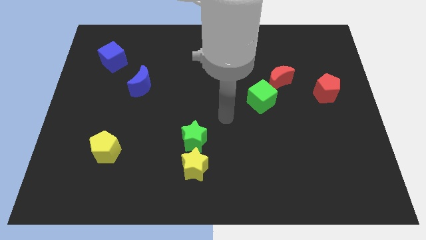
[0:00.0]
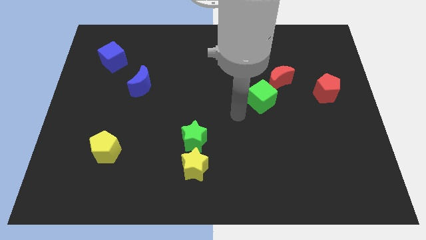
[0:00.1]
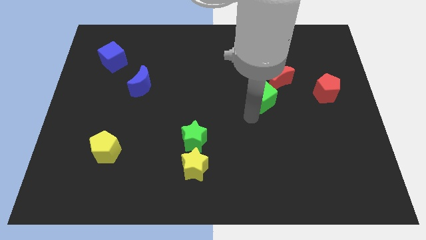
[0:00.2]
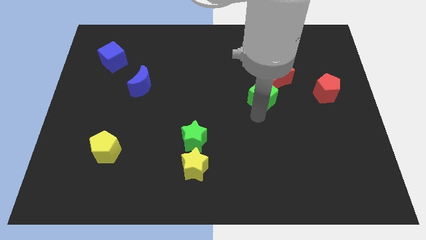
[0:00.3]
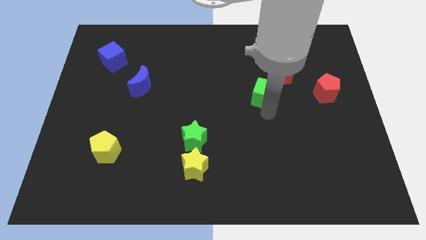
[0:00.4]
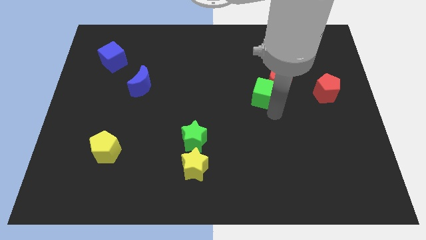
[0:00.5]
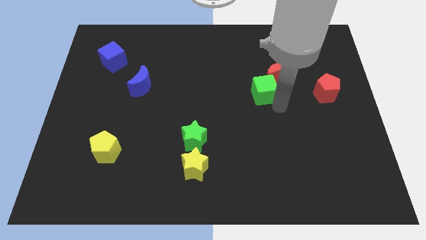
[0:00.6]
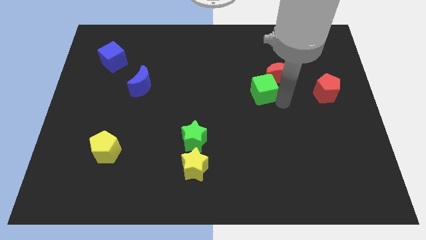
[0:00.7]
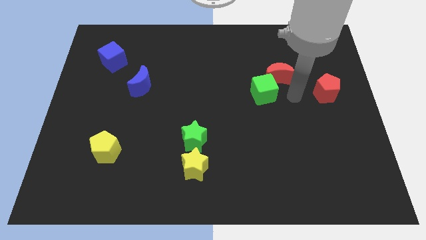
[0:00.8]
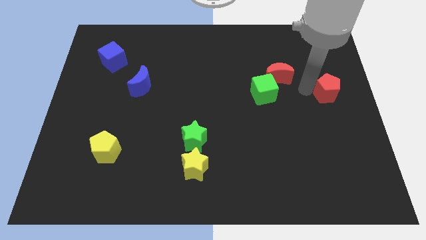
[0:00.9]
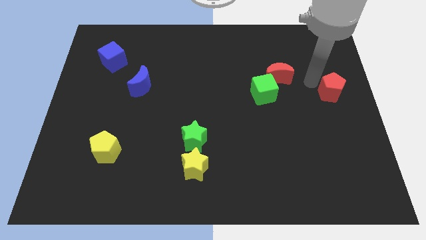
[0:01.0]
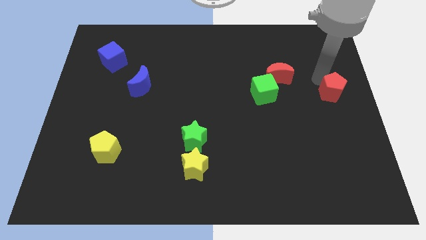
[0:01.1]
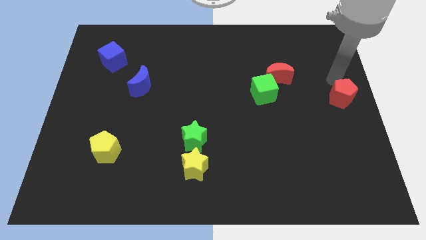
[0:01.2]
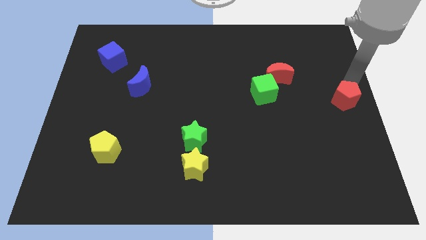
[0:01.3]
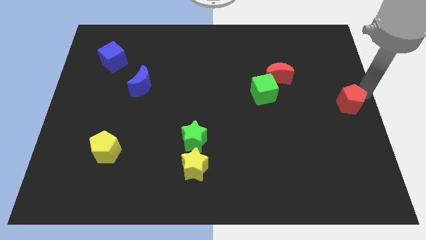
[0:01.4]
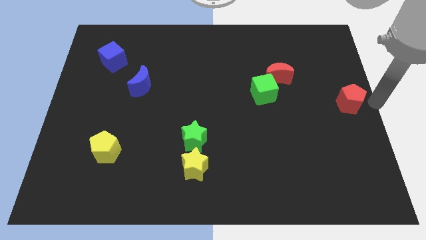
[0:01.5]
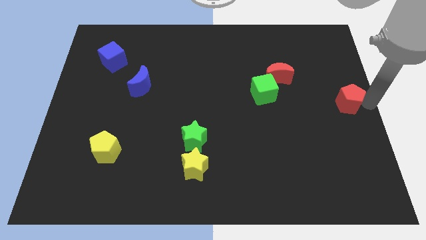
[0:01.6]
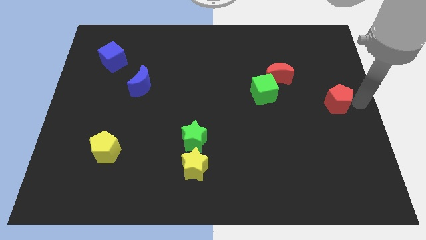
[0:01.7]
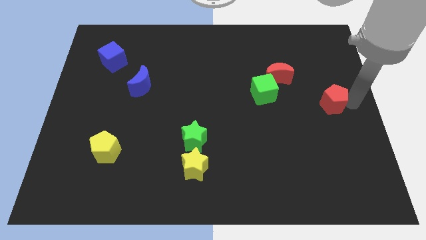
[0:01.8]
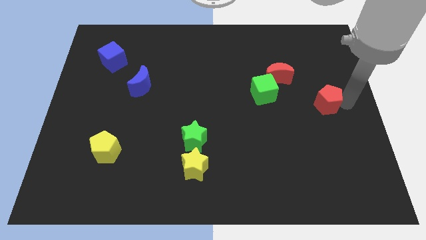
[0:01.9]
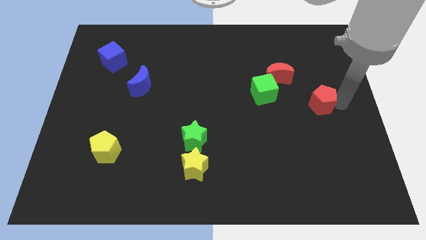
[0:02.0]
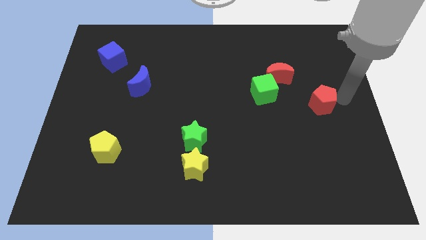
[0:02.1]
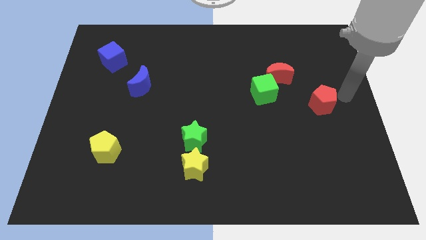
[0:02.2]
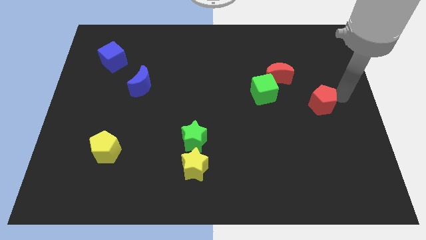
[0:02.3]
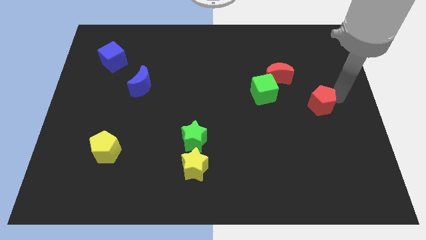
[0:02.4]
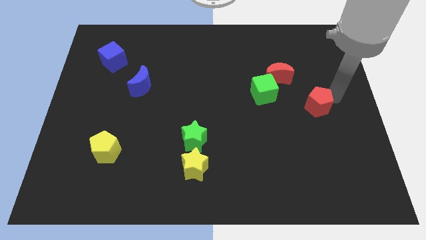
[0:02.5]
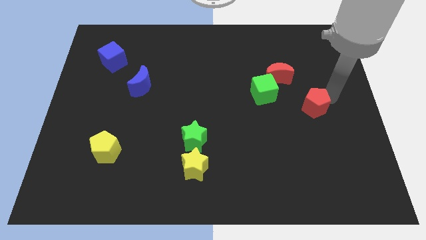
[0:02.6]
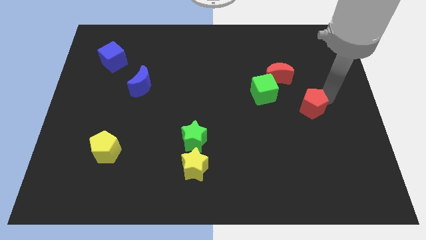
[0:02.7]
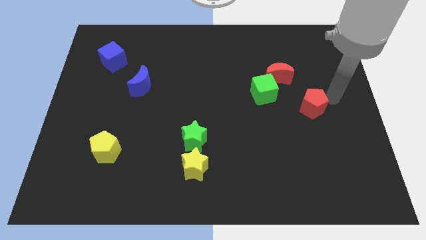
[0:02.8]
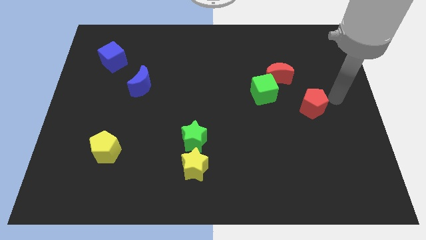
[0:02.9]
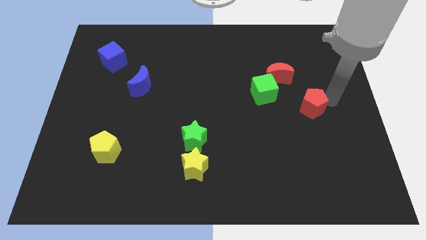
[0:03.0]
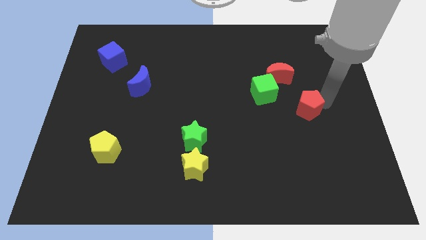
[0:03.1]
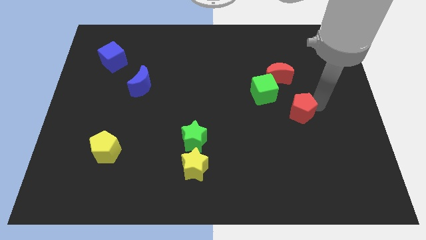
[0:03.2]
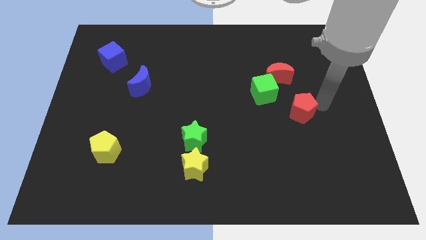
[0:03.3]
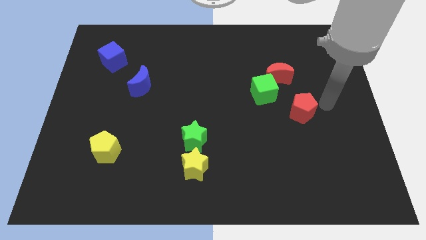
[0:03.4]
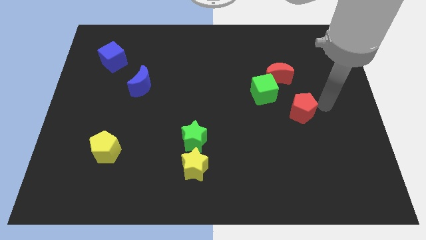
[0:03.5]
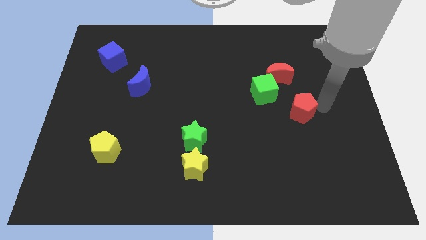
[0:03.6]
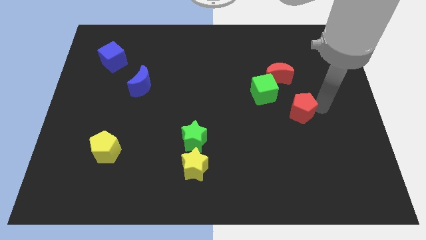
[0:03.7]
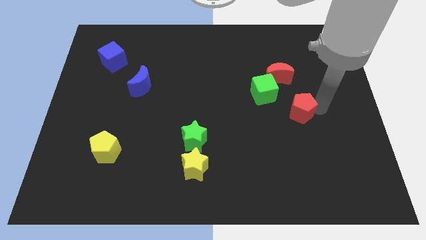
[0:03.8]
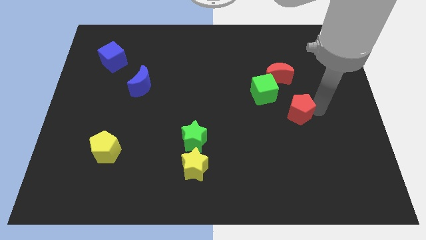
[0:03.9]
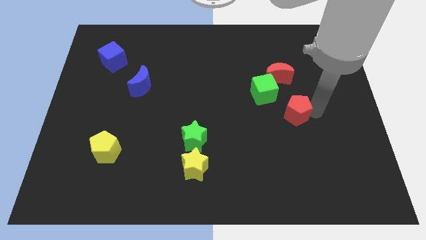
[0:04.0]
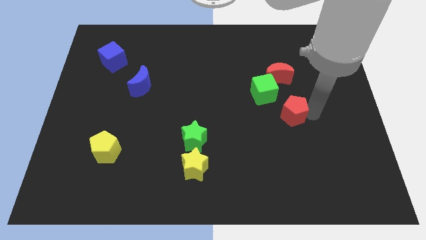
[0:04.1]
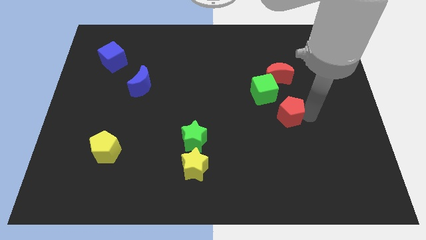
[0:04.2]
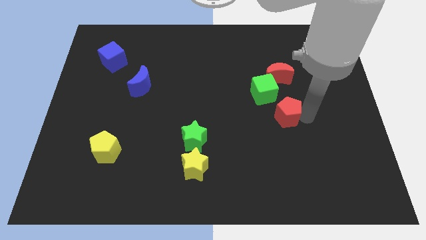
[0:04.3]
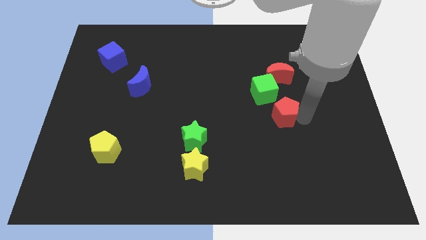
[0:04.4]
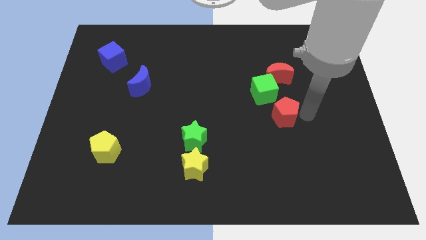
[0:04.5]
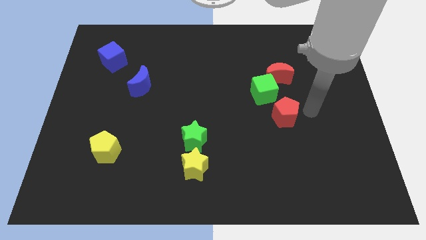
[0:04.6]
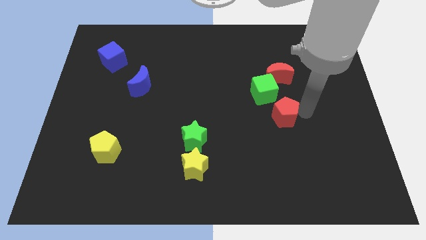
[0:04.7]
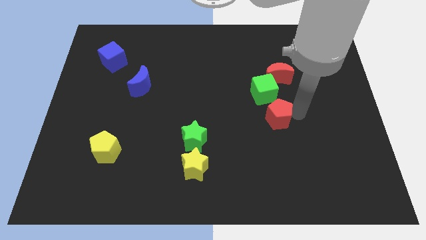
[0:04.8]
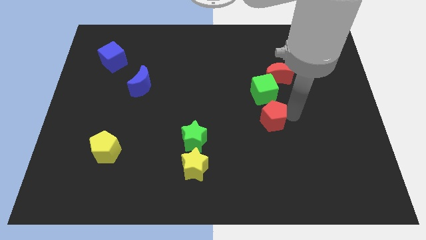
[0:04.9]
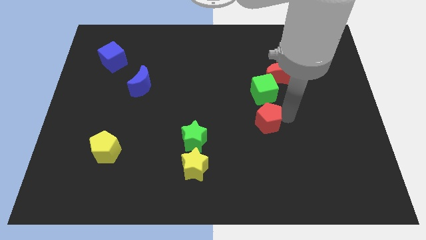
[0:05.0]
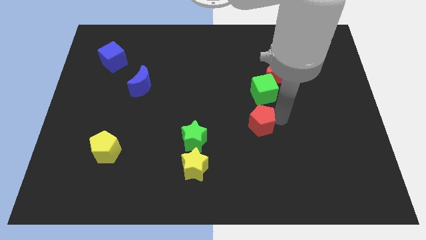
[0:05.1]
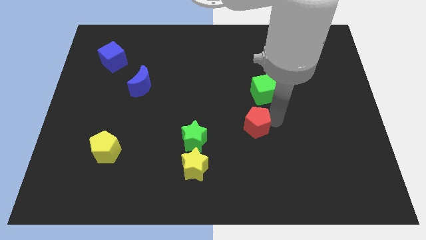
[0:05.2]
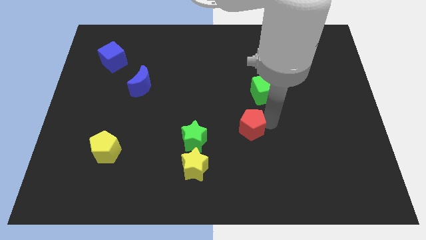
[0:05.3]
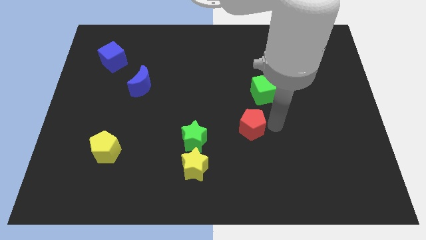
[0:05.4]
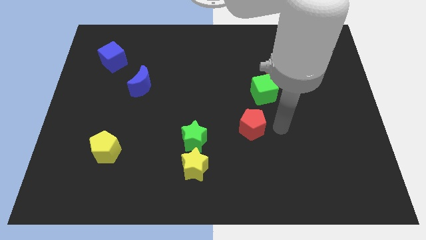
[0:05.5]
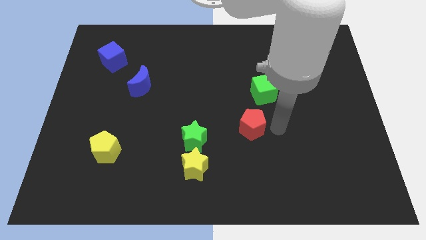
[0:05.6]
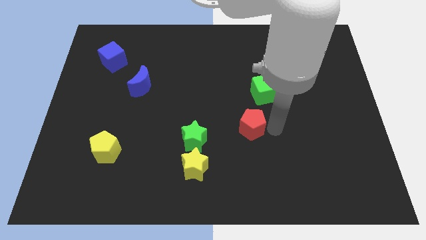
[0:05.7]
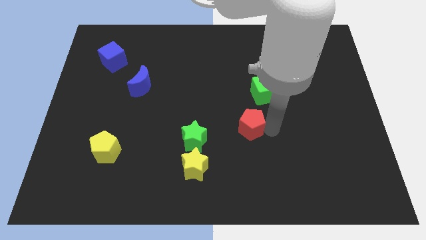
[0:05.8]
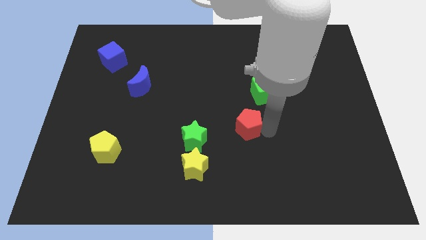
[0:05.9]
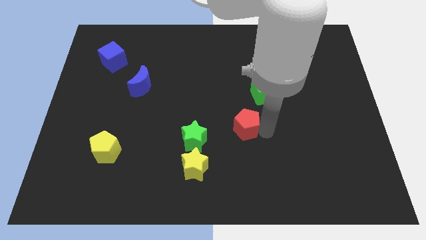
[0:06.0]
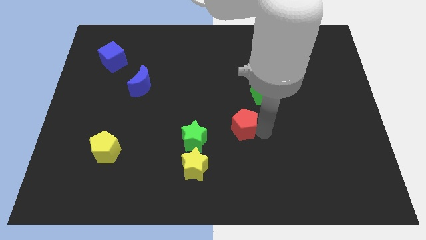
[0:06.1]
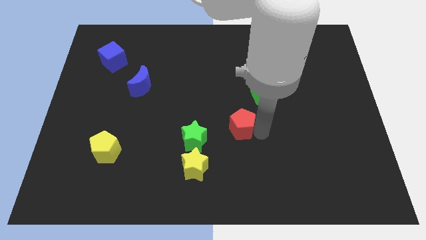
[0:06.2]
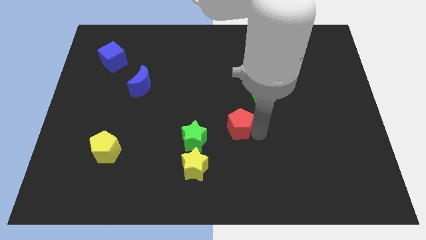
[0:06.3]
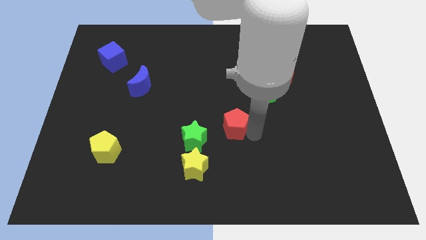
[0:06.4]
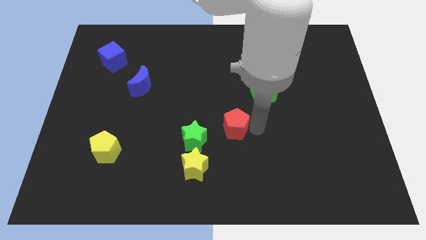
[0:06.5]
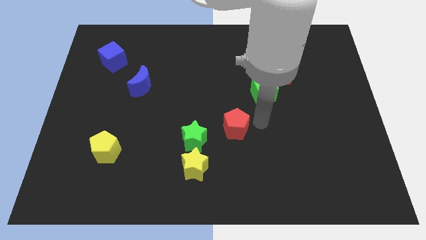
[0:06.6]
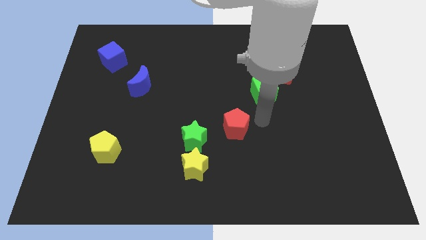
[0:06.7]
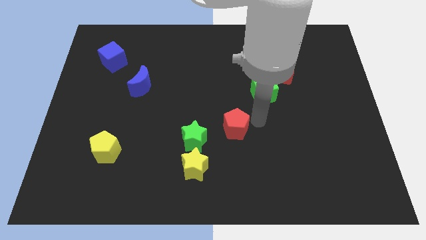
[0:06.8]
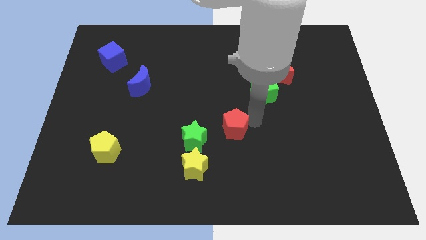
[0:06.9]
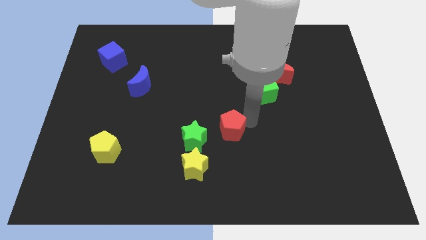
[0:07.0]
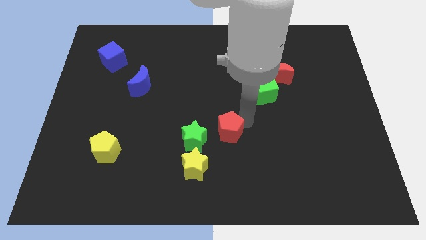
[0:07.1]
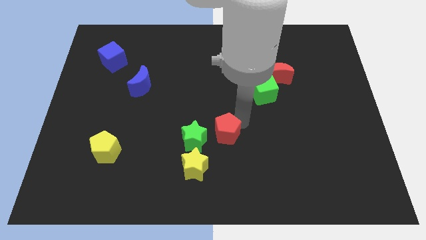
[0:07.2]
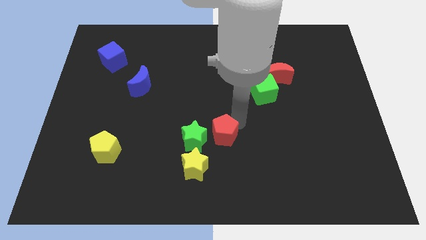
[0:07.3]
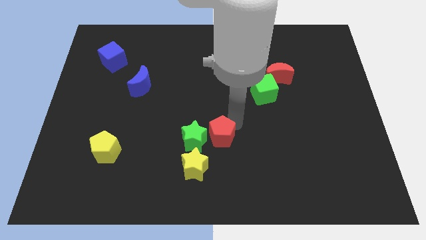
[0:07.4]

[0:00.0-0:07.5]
push the red pentagon close to the green star

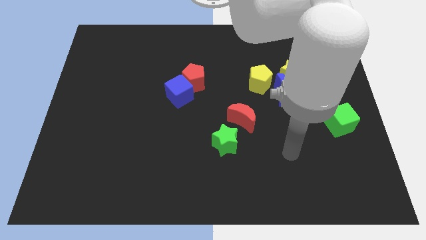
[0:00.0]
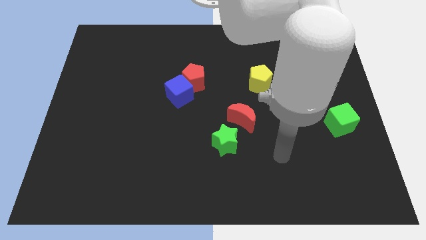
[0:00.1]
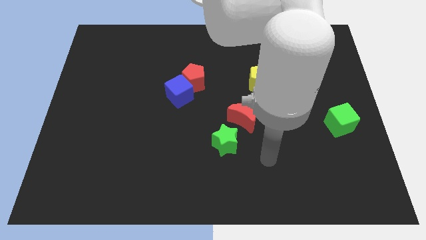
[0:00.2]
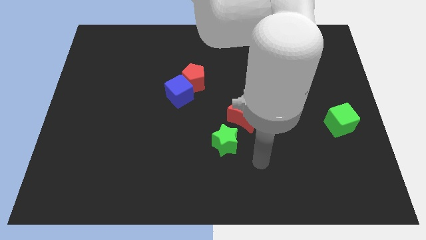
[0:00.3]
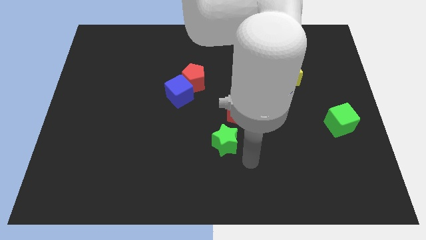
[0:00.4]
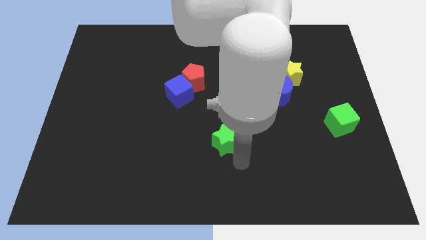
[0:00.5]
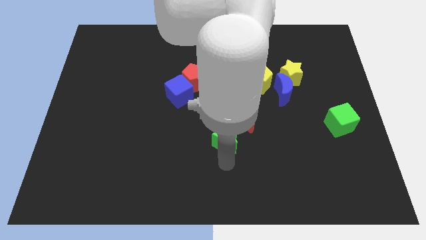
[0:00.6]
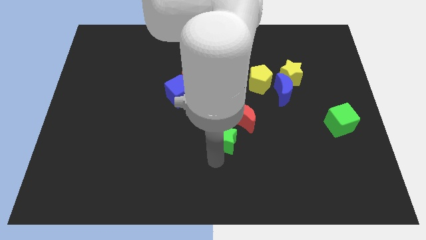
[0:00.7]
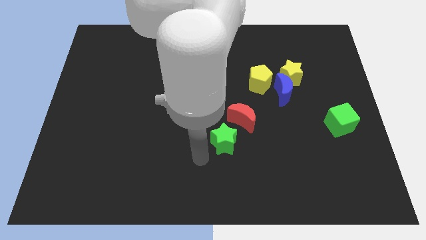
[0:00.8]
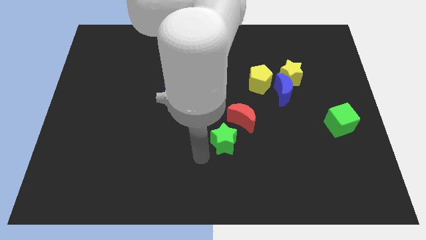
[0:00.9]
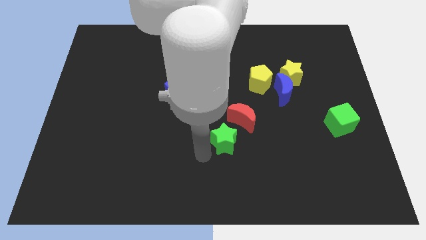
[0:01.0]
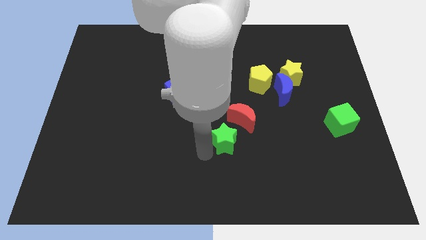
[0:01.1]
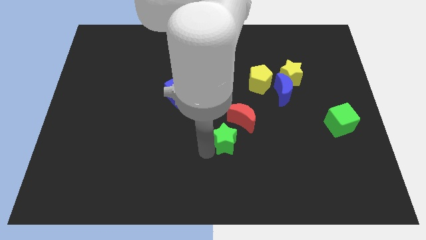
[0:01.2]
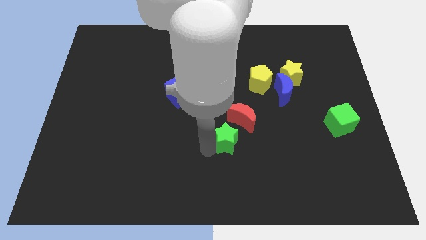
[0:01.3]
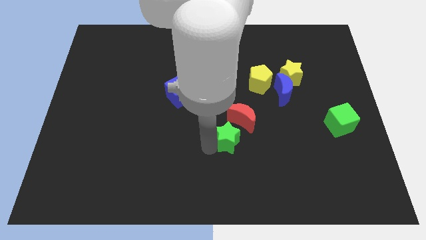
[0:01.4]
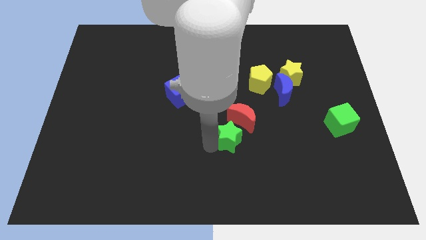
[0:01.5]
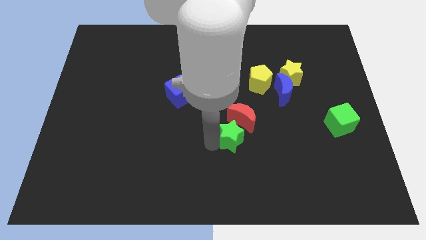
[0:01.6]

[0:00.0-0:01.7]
move the green star to the red moon
